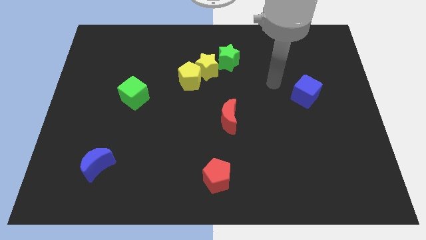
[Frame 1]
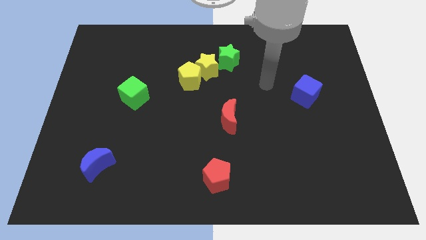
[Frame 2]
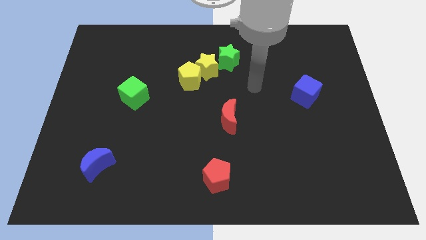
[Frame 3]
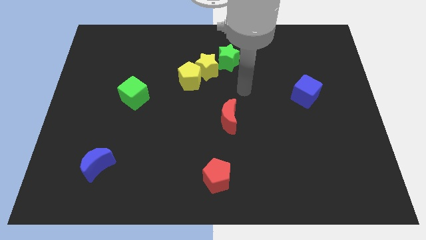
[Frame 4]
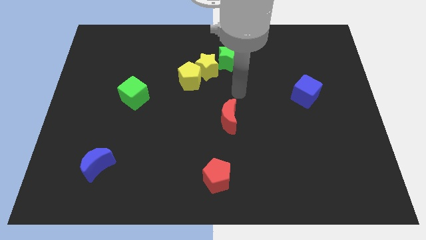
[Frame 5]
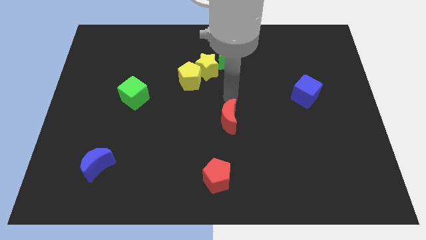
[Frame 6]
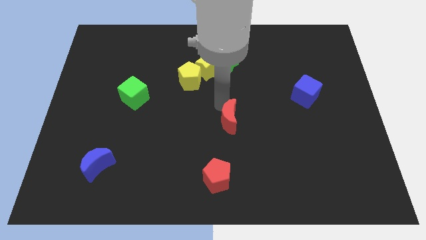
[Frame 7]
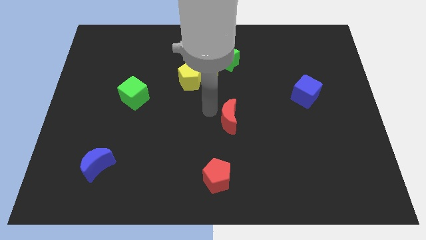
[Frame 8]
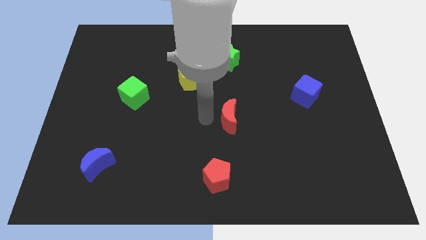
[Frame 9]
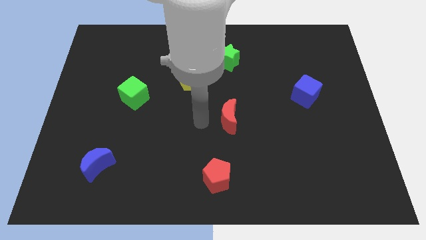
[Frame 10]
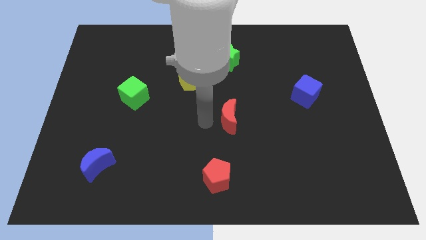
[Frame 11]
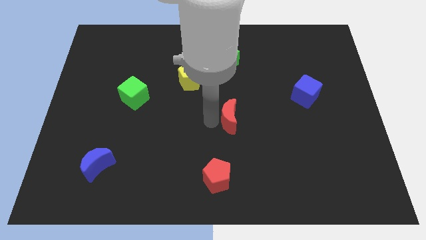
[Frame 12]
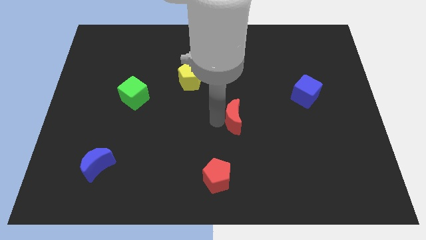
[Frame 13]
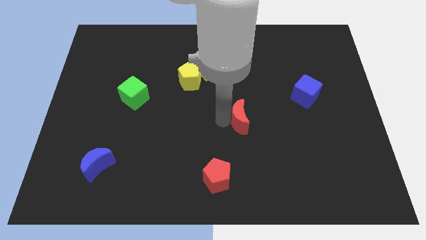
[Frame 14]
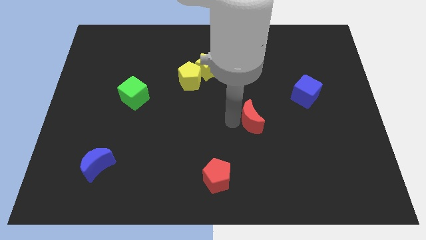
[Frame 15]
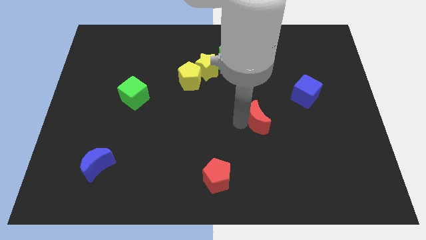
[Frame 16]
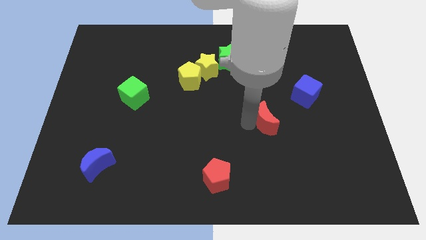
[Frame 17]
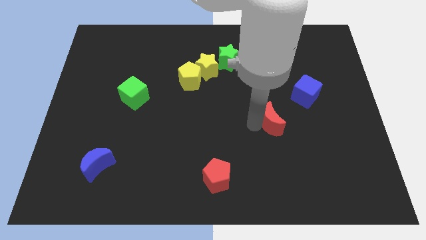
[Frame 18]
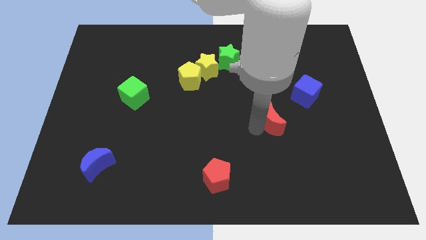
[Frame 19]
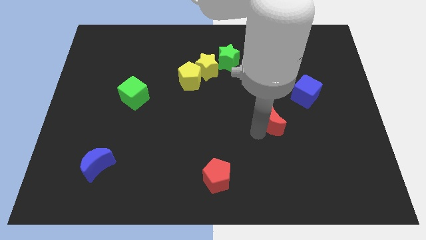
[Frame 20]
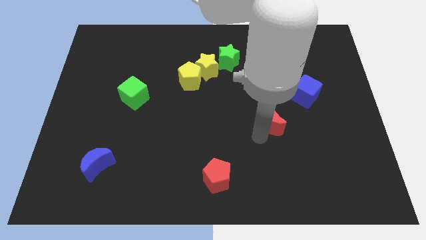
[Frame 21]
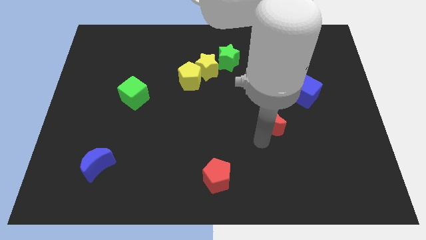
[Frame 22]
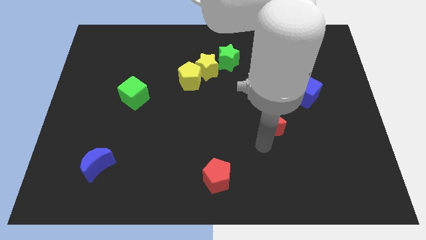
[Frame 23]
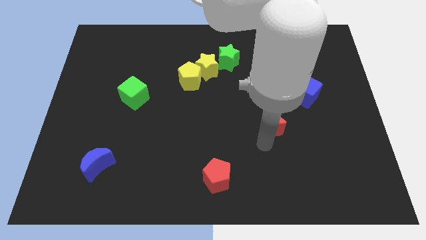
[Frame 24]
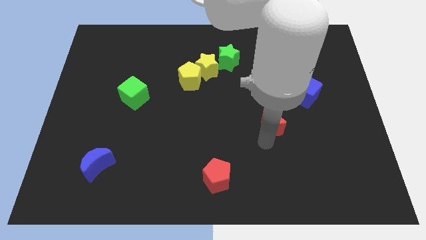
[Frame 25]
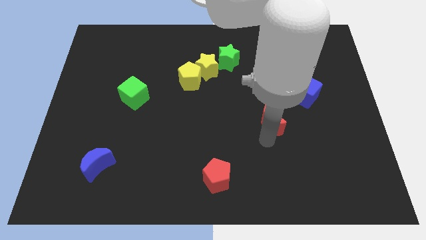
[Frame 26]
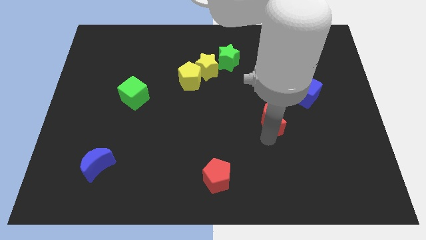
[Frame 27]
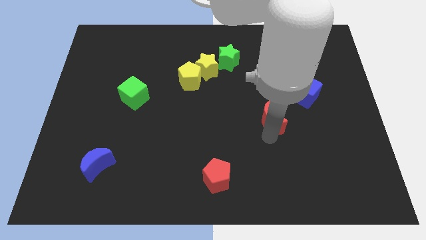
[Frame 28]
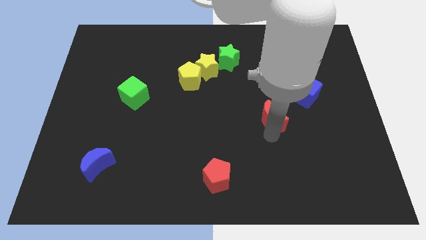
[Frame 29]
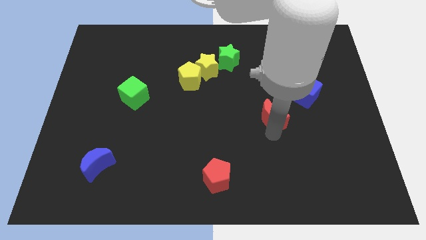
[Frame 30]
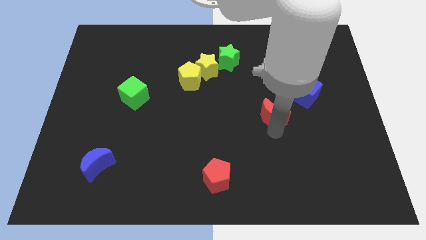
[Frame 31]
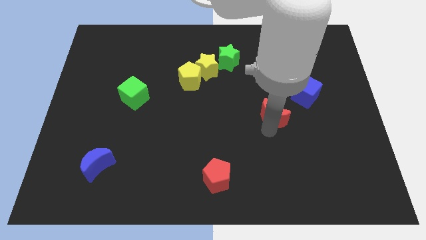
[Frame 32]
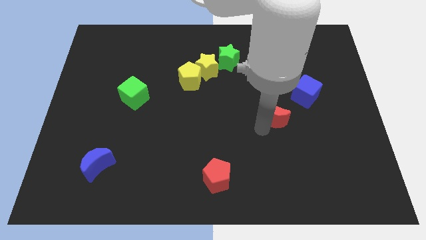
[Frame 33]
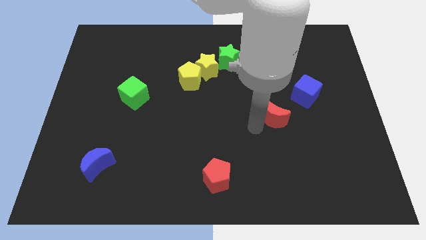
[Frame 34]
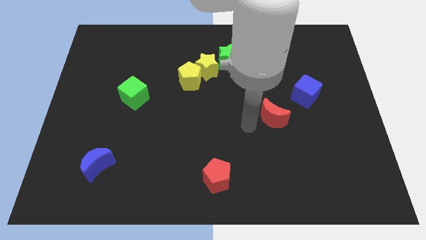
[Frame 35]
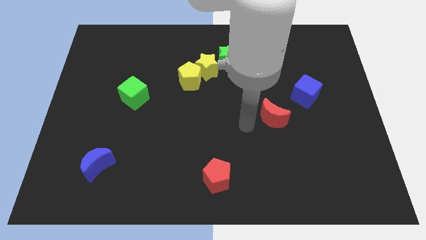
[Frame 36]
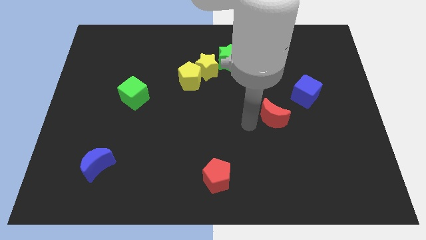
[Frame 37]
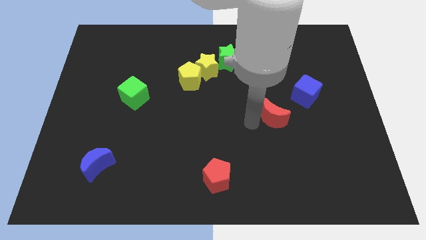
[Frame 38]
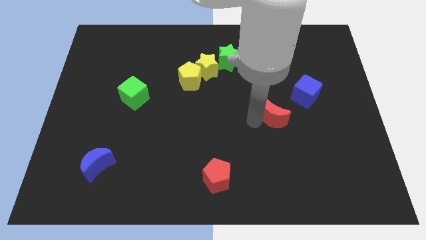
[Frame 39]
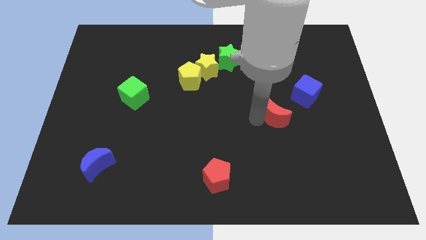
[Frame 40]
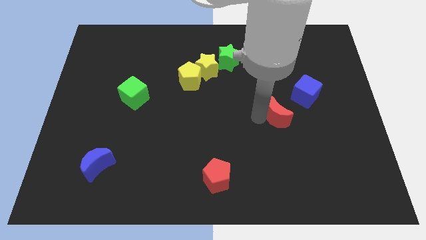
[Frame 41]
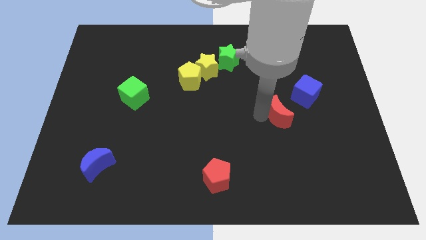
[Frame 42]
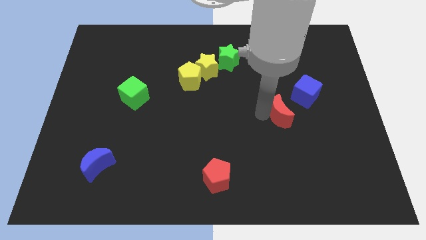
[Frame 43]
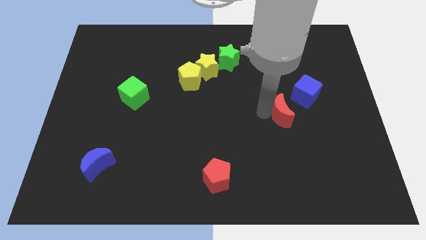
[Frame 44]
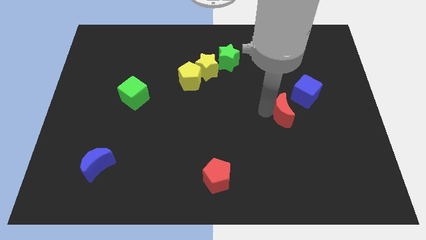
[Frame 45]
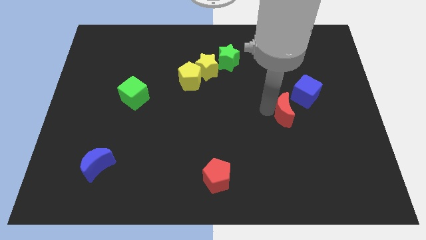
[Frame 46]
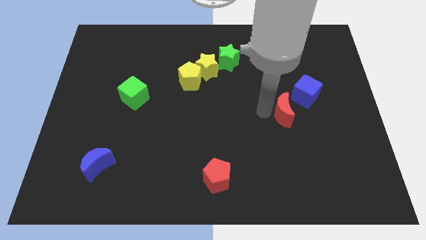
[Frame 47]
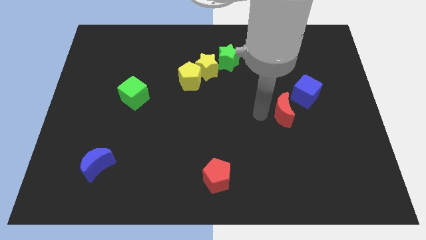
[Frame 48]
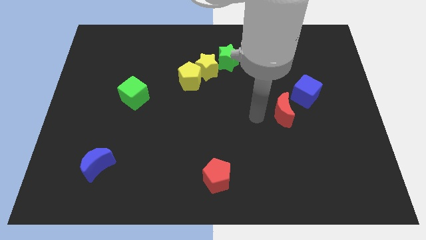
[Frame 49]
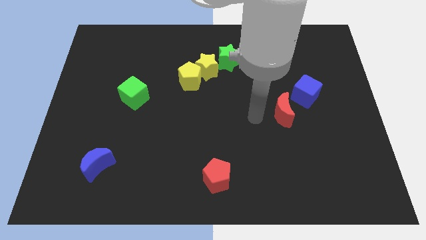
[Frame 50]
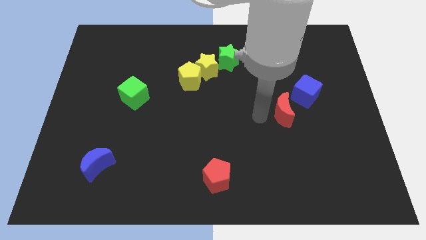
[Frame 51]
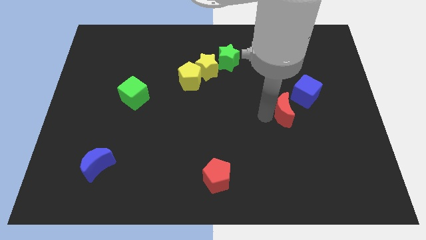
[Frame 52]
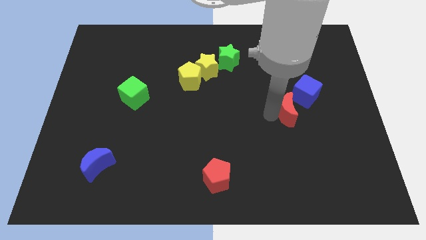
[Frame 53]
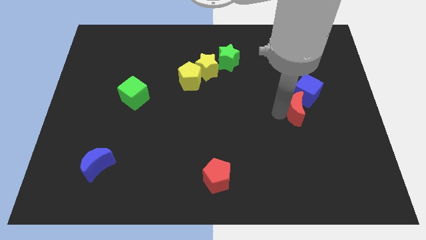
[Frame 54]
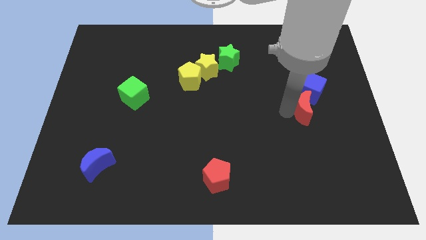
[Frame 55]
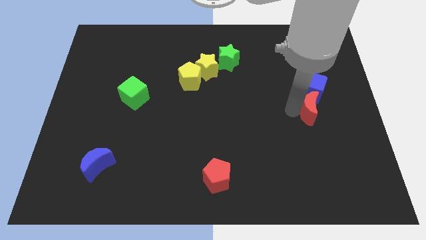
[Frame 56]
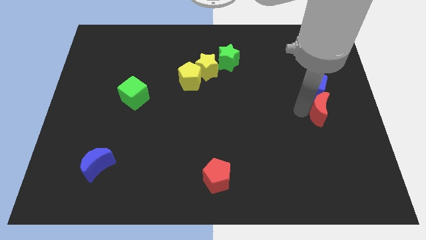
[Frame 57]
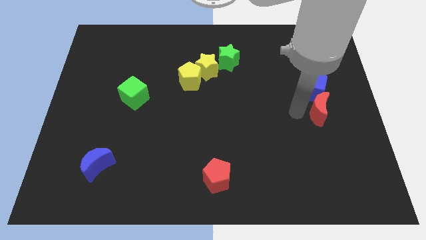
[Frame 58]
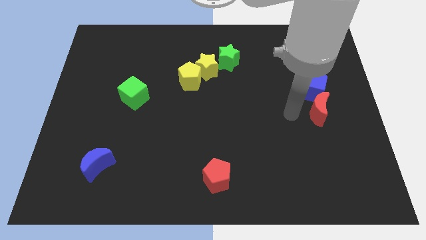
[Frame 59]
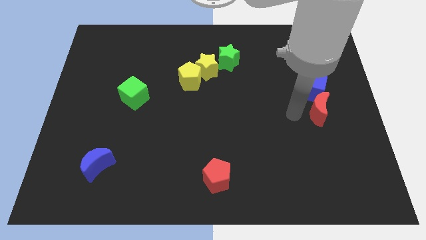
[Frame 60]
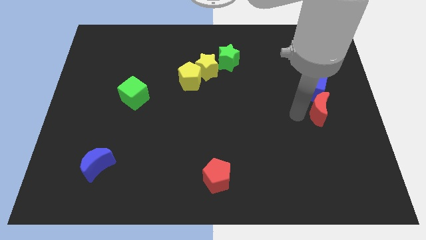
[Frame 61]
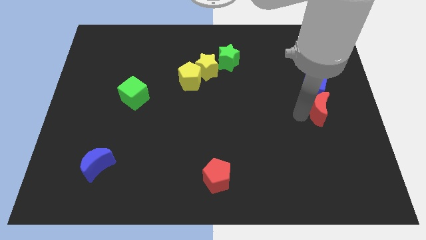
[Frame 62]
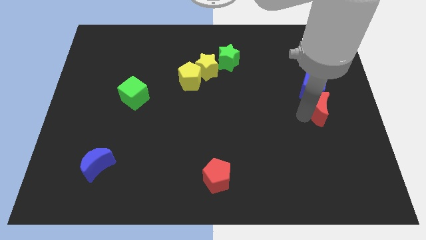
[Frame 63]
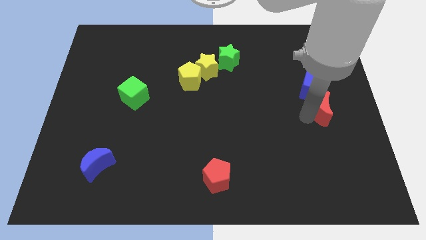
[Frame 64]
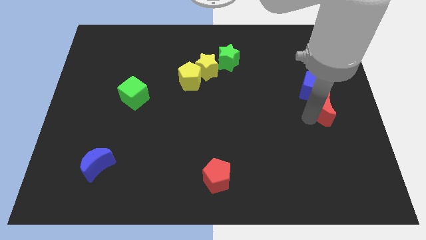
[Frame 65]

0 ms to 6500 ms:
push the red moon to the right side of the board
